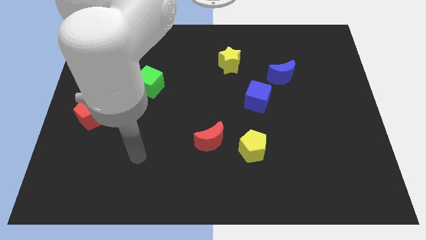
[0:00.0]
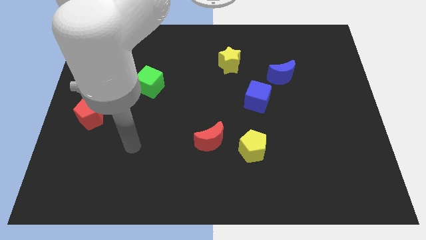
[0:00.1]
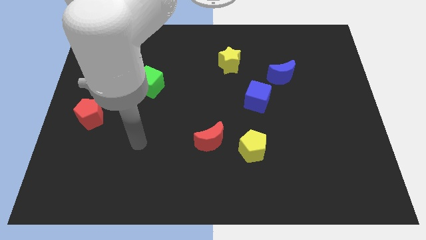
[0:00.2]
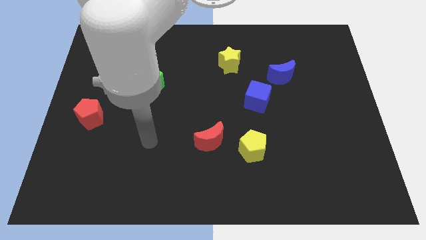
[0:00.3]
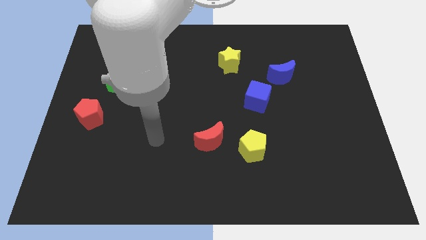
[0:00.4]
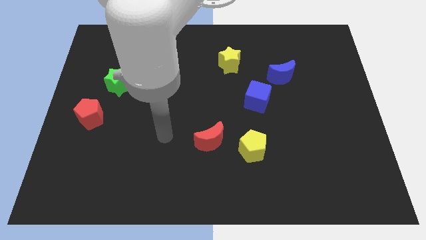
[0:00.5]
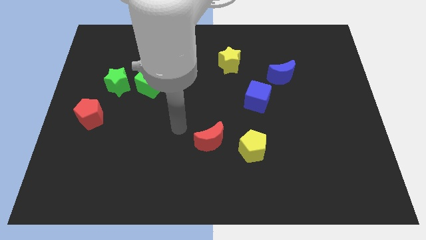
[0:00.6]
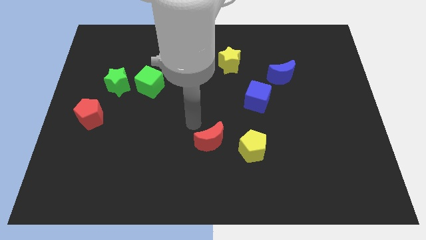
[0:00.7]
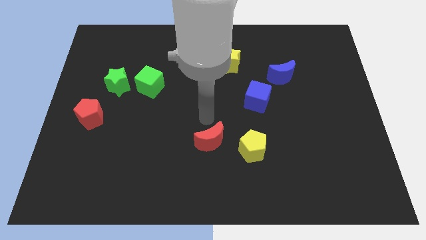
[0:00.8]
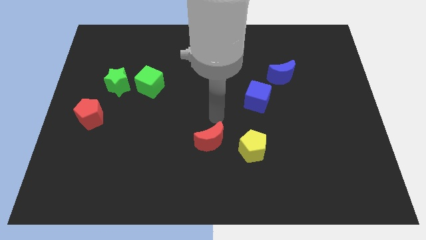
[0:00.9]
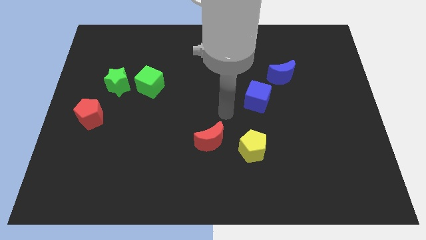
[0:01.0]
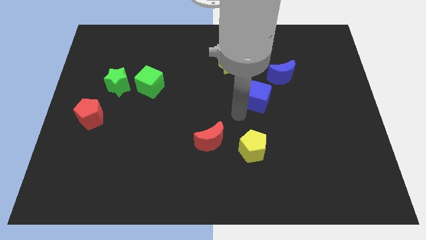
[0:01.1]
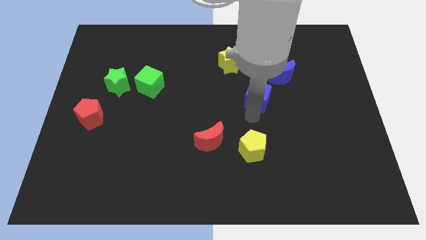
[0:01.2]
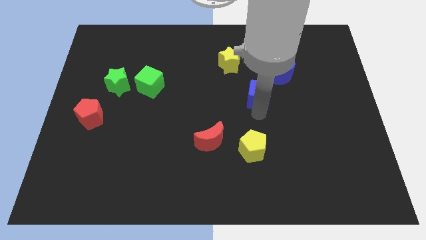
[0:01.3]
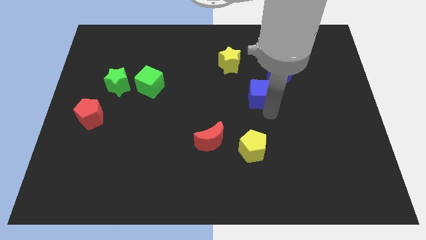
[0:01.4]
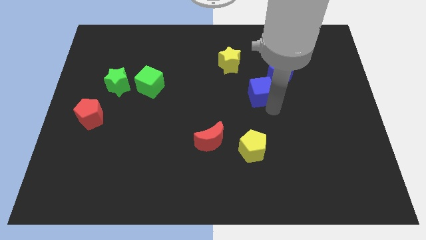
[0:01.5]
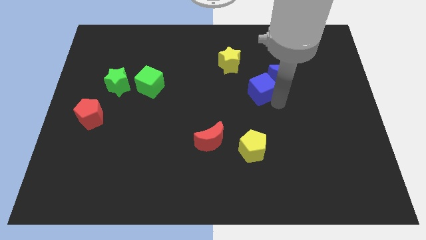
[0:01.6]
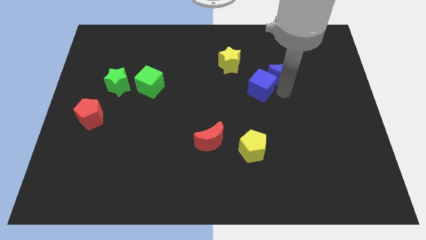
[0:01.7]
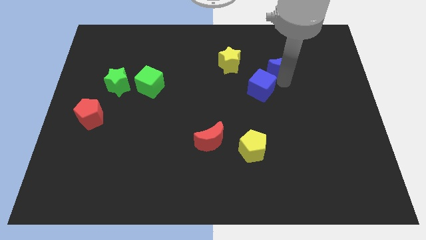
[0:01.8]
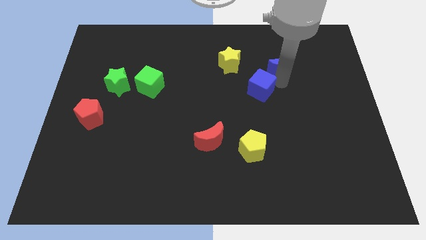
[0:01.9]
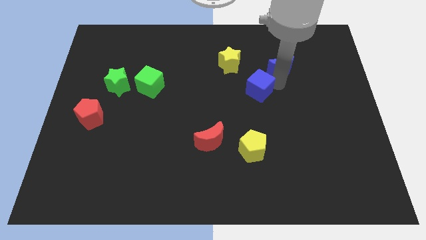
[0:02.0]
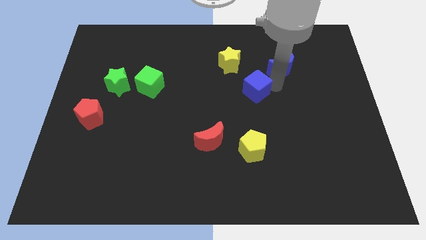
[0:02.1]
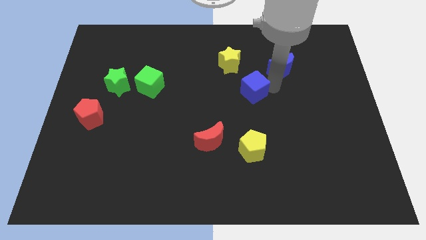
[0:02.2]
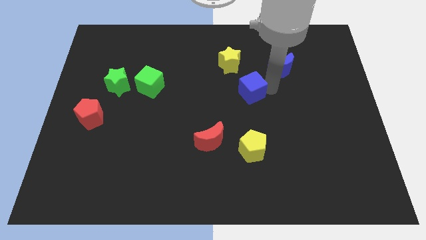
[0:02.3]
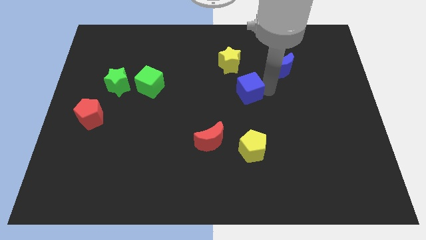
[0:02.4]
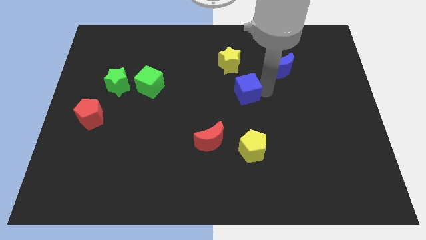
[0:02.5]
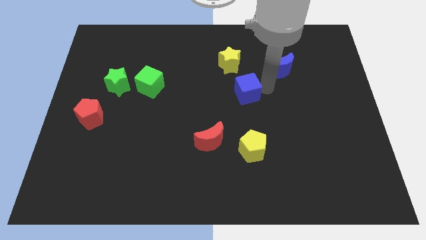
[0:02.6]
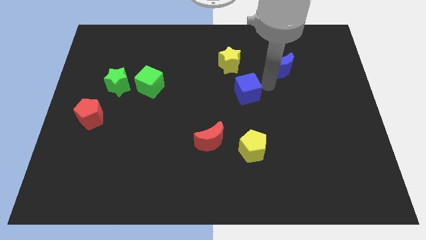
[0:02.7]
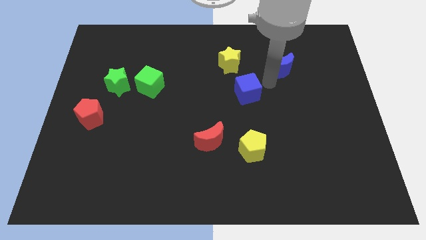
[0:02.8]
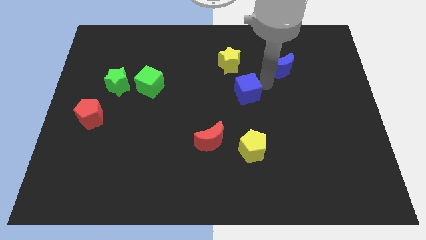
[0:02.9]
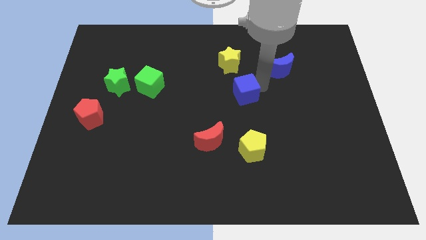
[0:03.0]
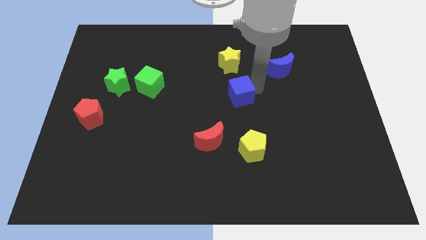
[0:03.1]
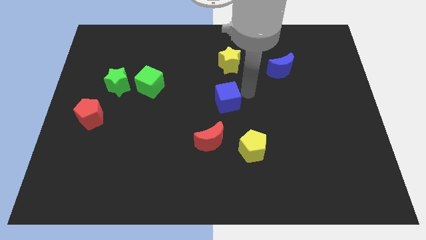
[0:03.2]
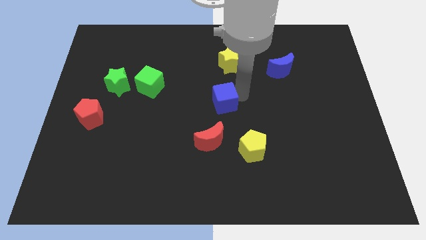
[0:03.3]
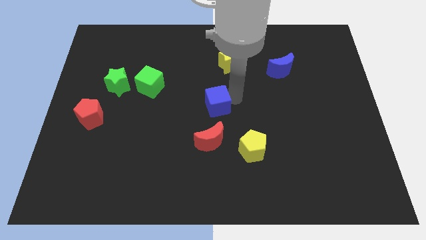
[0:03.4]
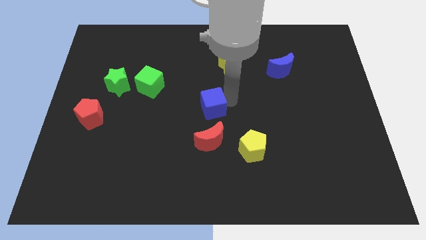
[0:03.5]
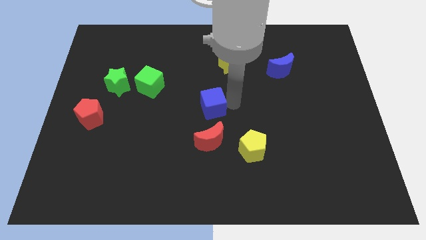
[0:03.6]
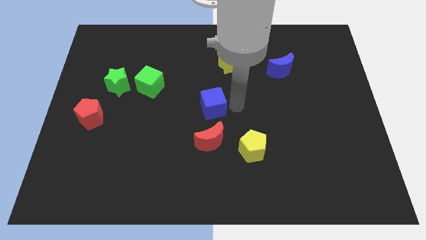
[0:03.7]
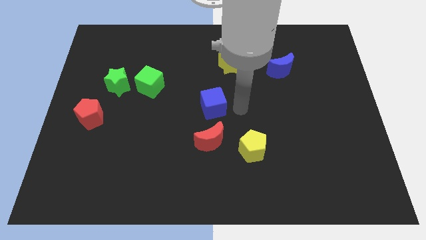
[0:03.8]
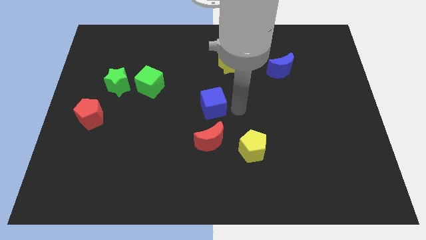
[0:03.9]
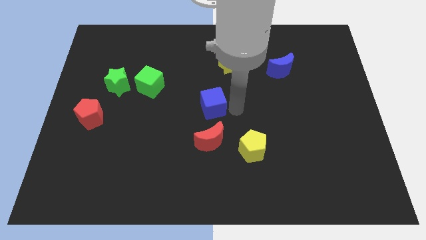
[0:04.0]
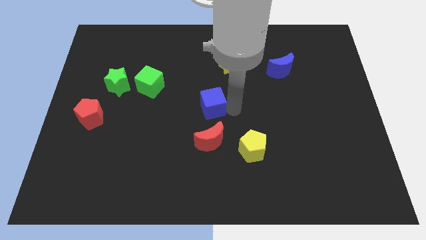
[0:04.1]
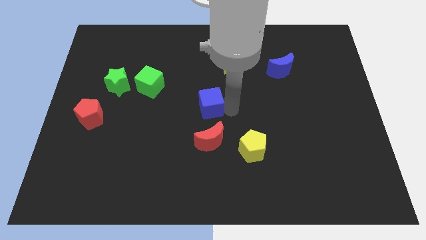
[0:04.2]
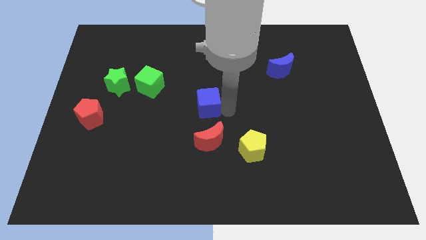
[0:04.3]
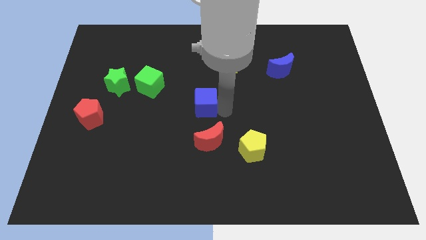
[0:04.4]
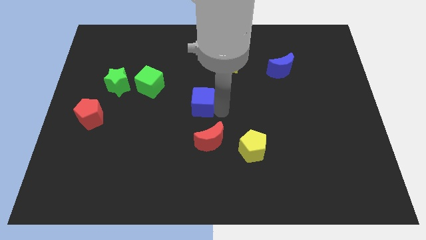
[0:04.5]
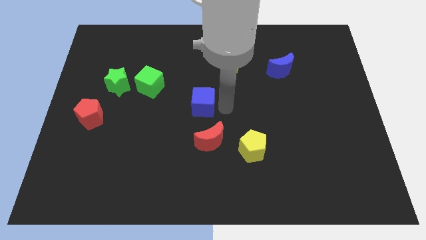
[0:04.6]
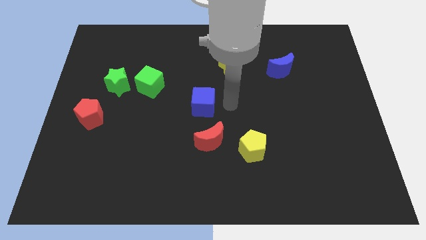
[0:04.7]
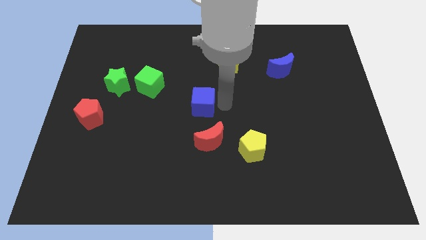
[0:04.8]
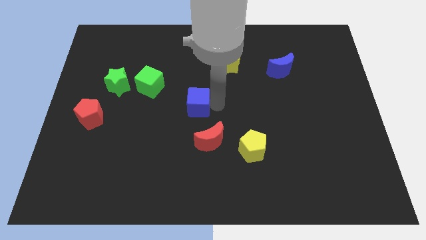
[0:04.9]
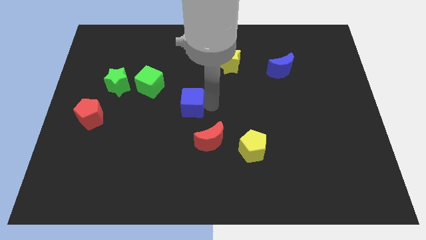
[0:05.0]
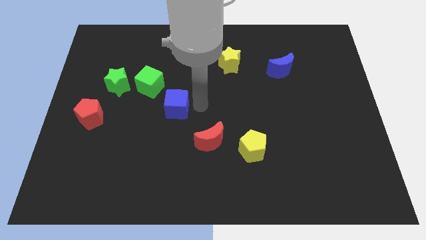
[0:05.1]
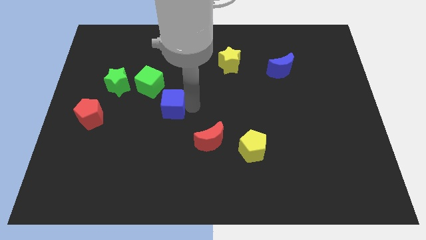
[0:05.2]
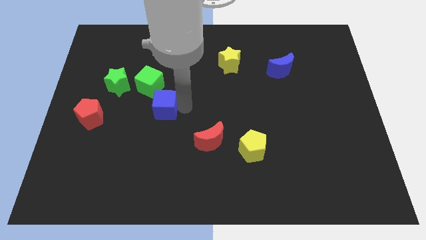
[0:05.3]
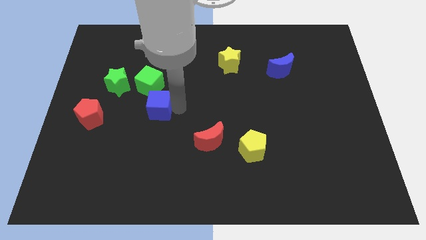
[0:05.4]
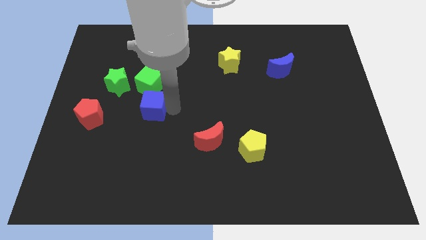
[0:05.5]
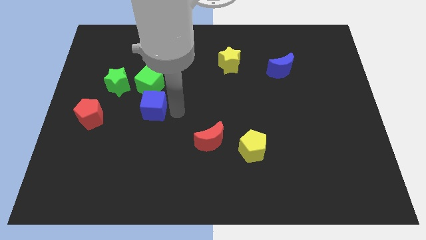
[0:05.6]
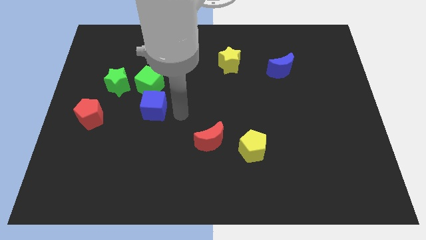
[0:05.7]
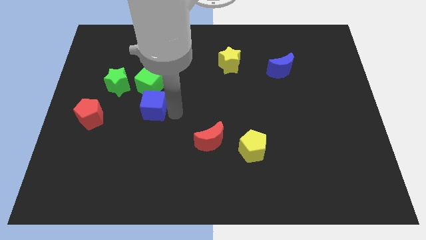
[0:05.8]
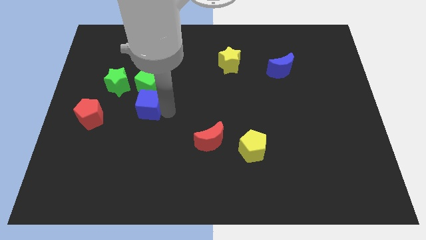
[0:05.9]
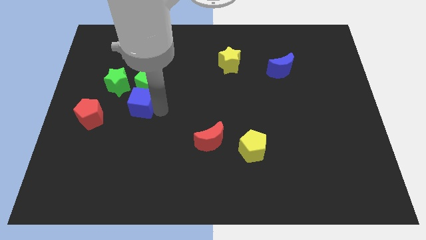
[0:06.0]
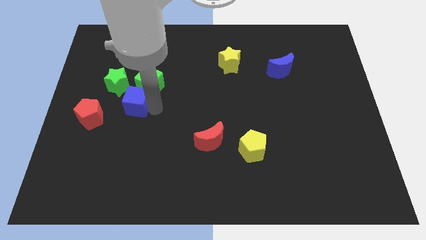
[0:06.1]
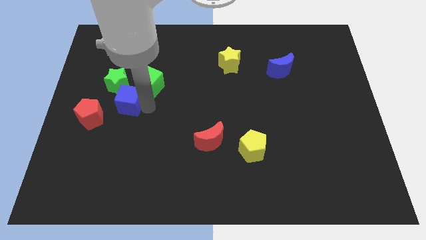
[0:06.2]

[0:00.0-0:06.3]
push the blue cube diagonally up and to the right of the red pentagon

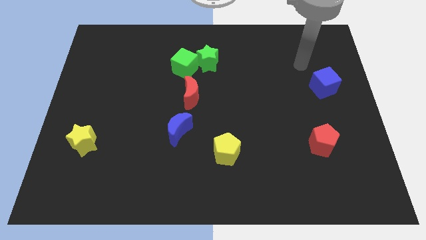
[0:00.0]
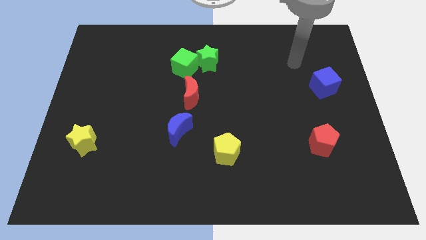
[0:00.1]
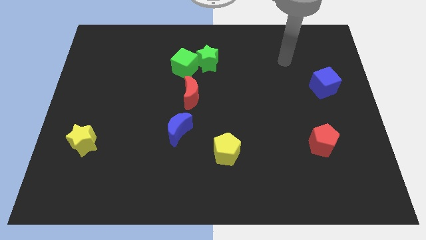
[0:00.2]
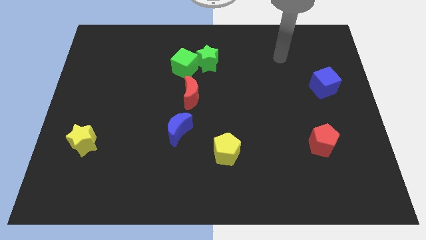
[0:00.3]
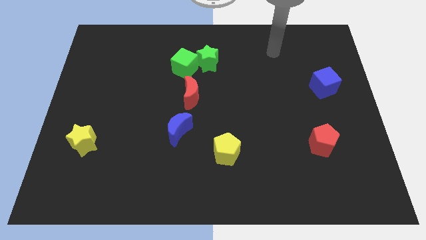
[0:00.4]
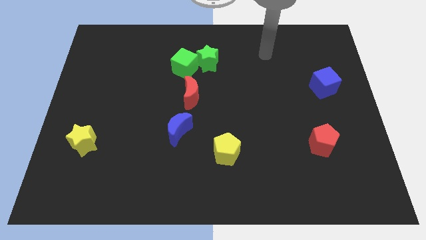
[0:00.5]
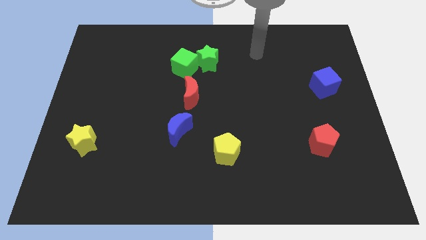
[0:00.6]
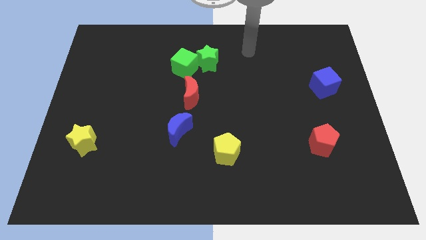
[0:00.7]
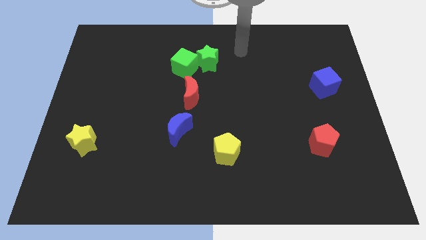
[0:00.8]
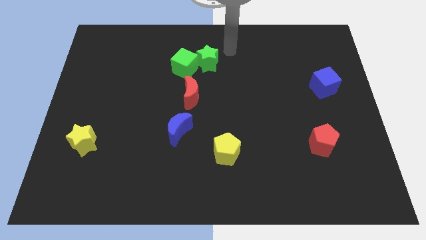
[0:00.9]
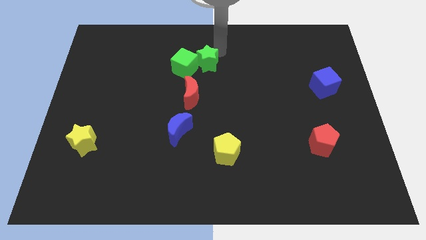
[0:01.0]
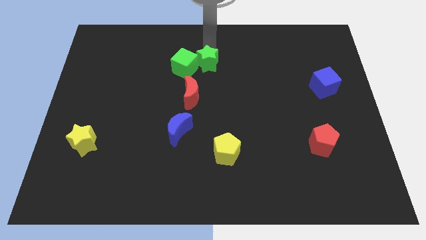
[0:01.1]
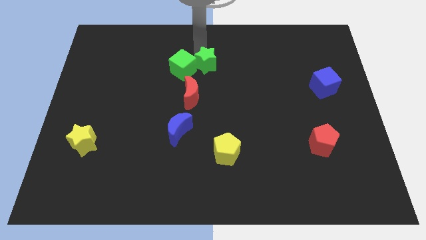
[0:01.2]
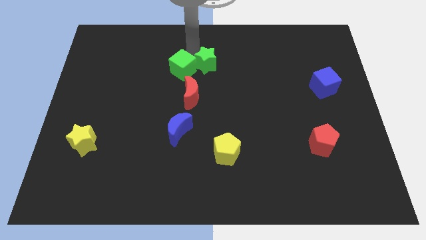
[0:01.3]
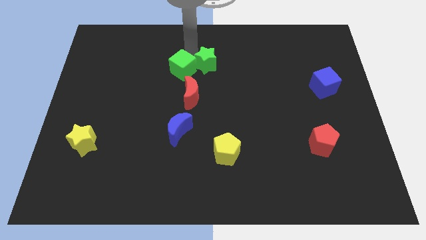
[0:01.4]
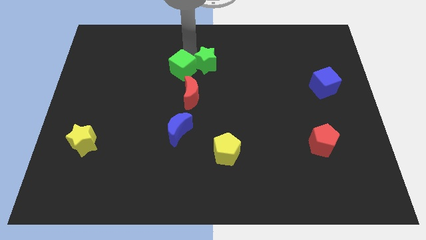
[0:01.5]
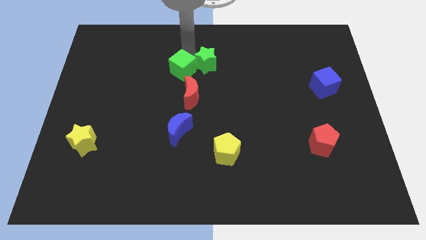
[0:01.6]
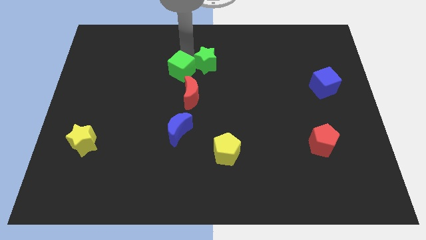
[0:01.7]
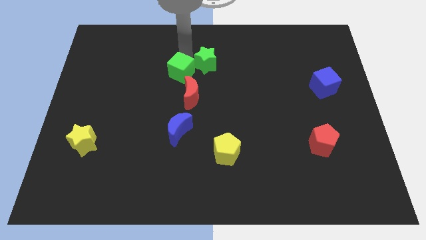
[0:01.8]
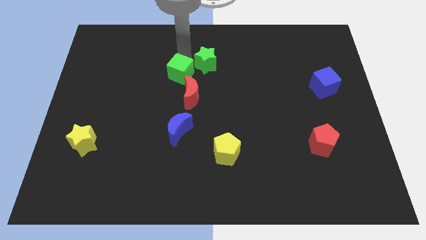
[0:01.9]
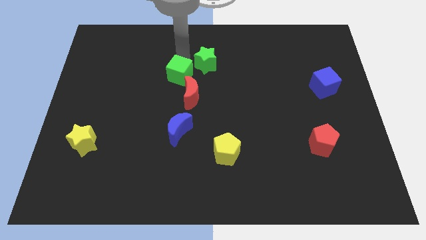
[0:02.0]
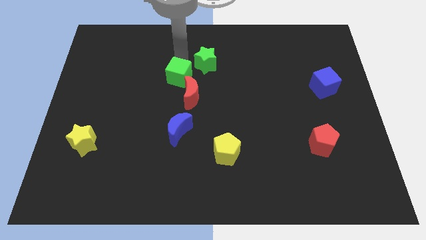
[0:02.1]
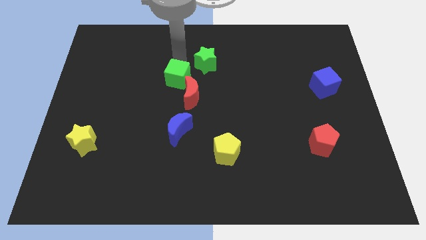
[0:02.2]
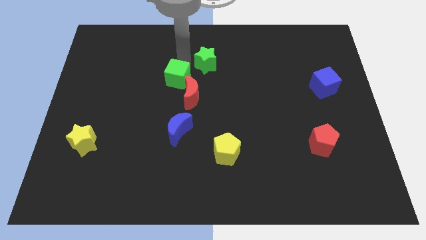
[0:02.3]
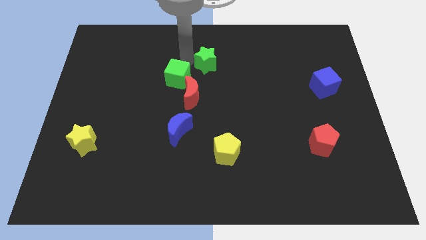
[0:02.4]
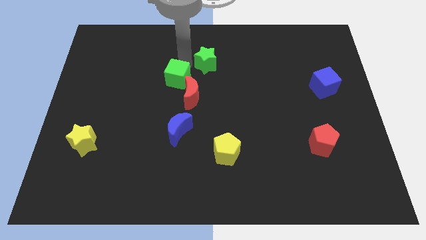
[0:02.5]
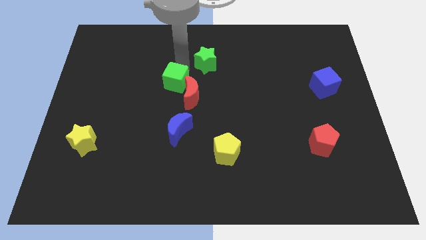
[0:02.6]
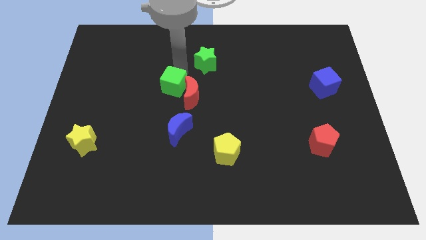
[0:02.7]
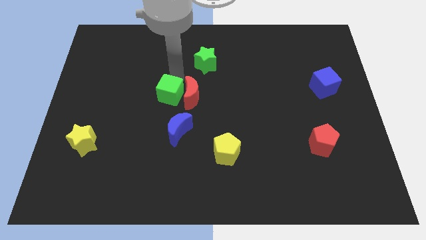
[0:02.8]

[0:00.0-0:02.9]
move the green cube to the bottom left of the red moon

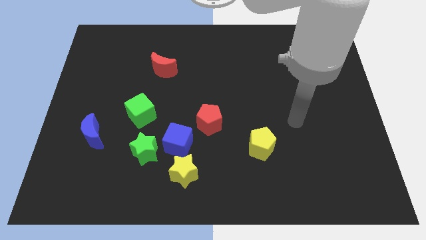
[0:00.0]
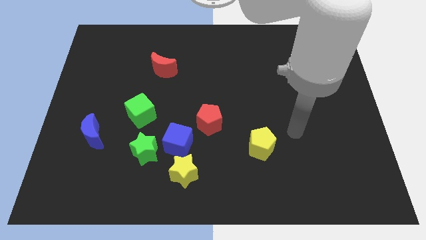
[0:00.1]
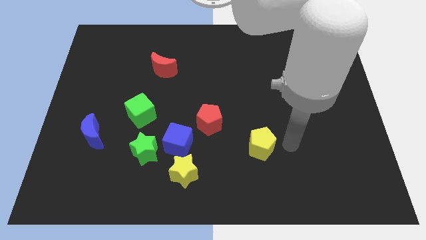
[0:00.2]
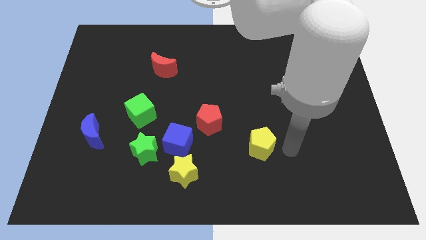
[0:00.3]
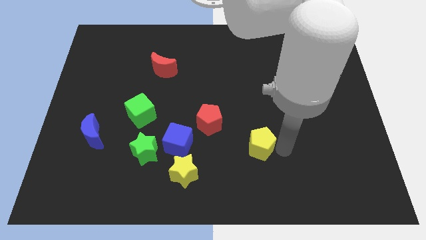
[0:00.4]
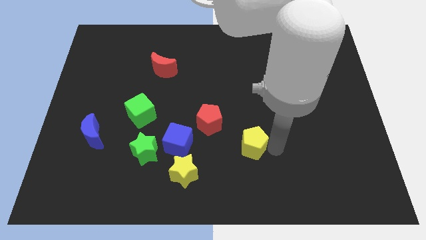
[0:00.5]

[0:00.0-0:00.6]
push the yellow pentagon right of the blue cube
